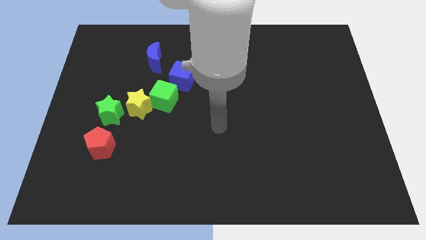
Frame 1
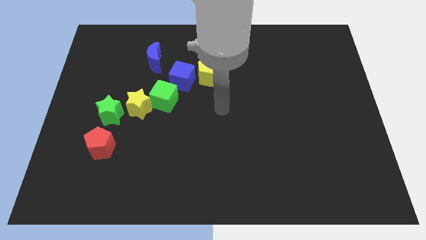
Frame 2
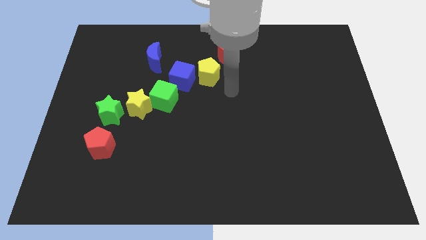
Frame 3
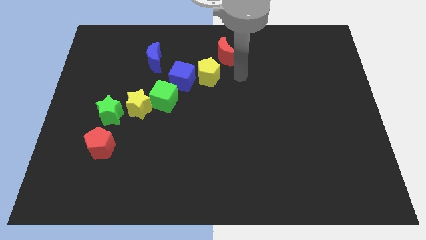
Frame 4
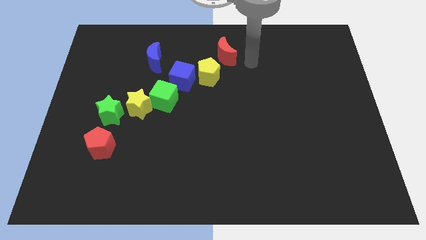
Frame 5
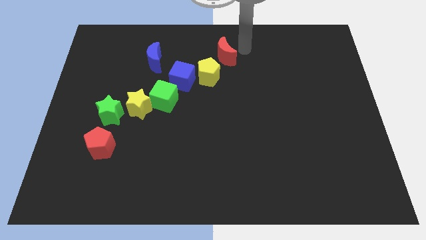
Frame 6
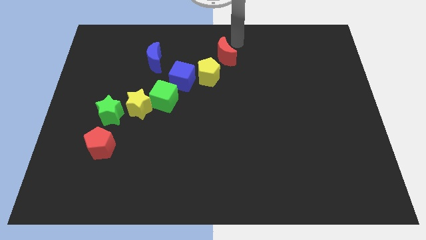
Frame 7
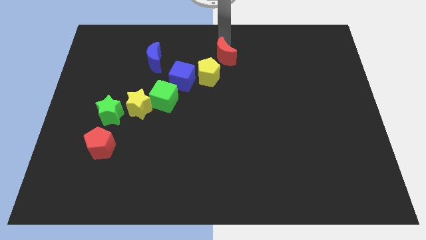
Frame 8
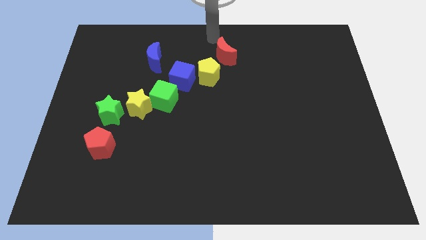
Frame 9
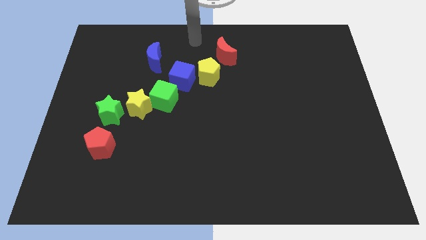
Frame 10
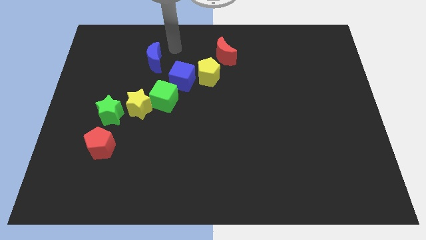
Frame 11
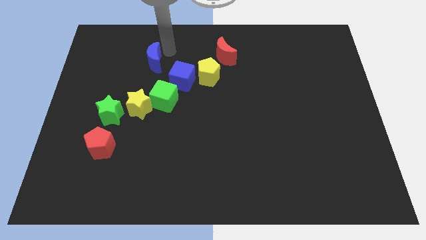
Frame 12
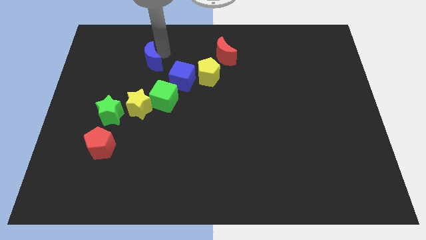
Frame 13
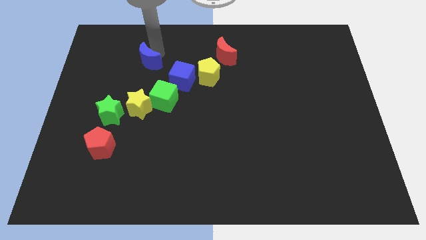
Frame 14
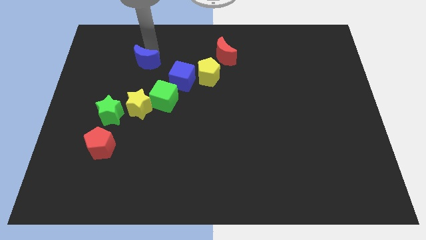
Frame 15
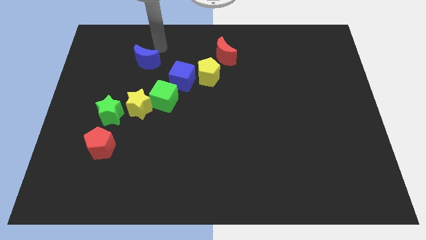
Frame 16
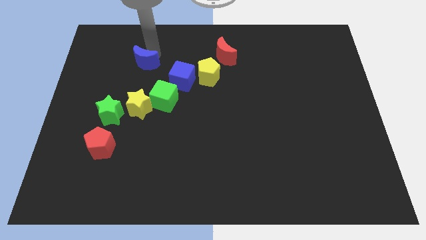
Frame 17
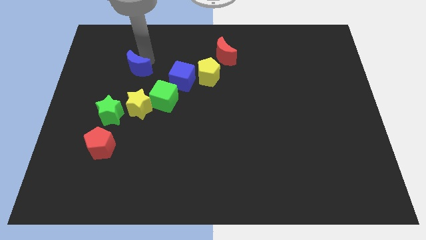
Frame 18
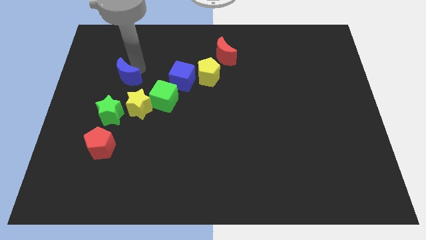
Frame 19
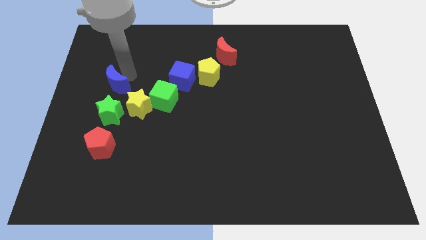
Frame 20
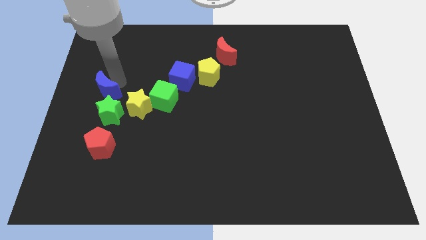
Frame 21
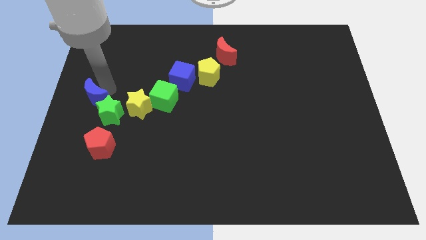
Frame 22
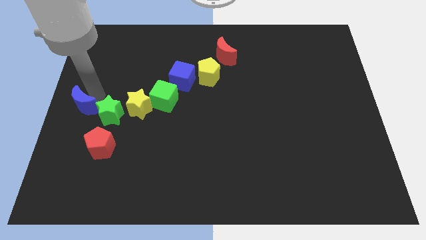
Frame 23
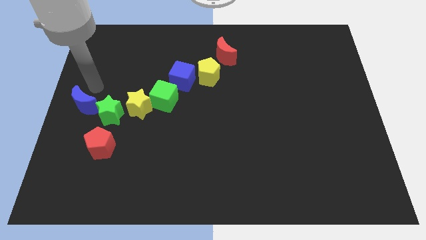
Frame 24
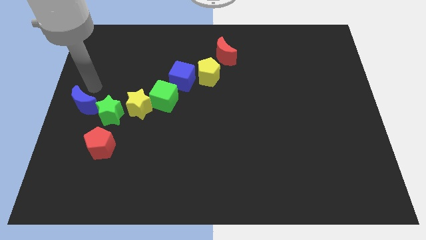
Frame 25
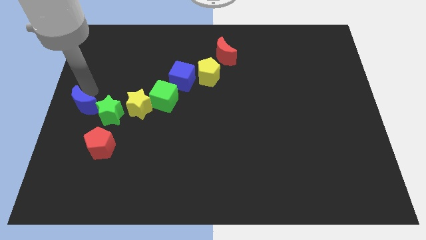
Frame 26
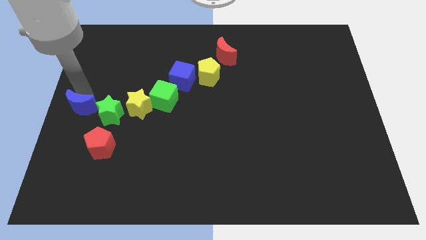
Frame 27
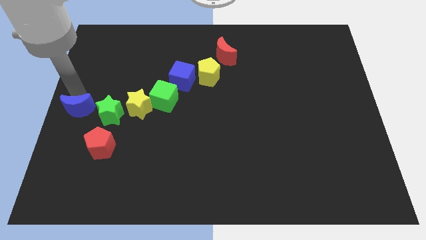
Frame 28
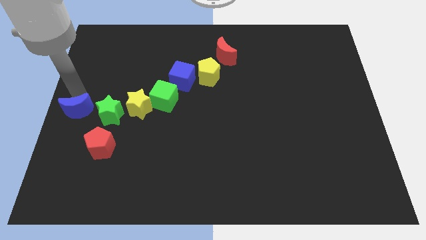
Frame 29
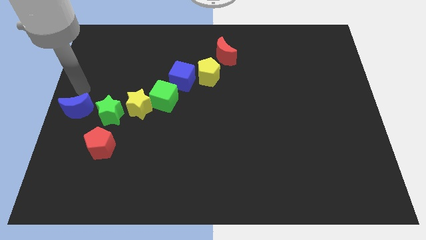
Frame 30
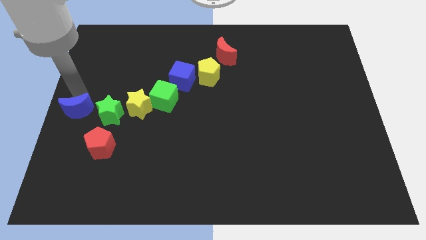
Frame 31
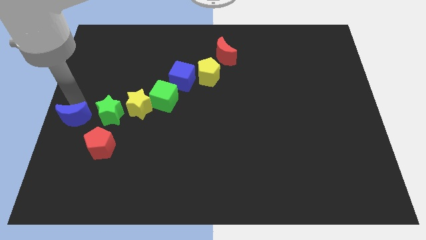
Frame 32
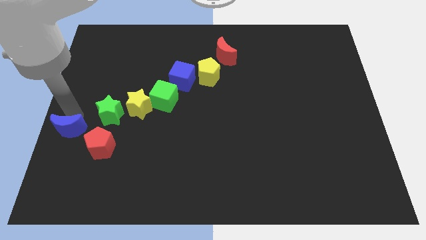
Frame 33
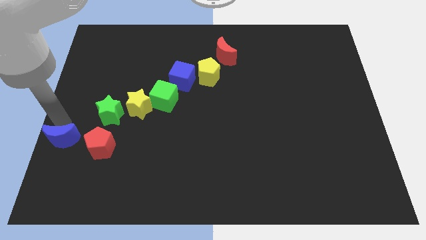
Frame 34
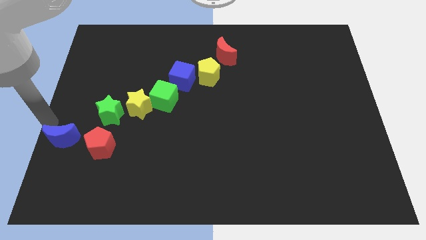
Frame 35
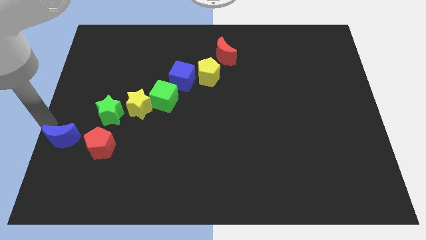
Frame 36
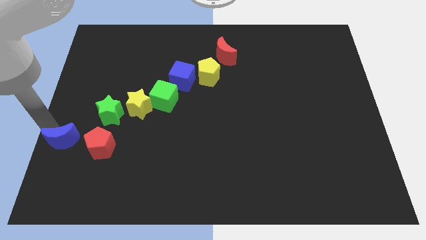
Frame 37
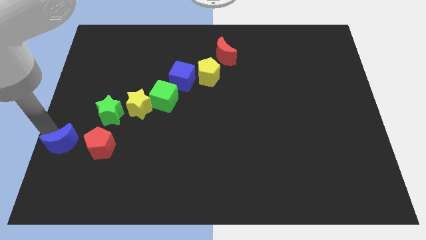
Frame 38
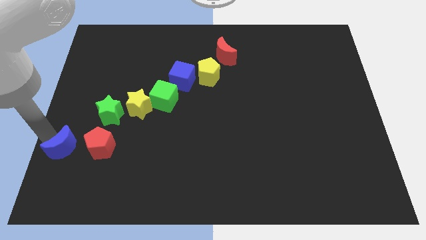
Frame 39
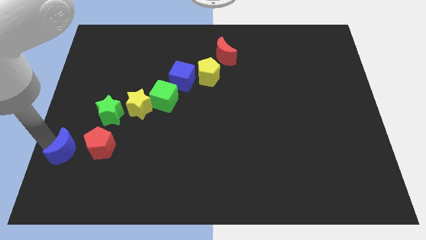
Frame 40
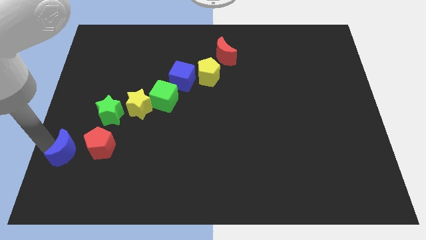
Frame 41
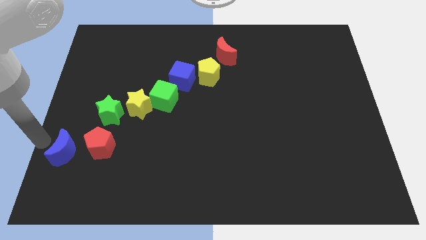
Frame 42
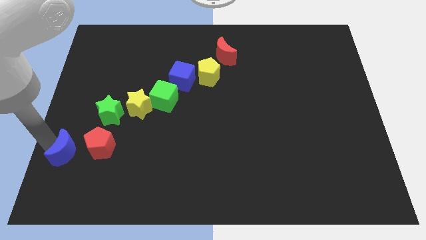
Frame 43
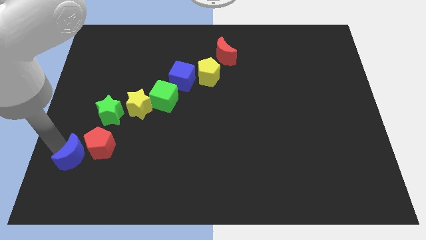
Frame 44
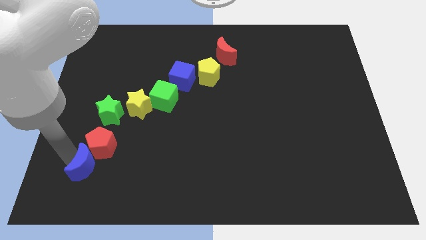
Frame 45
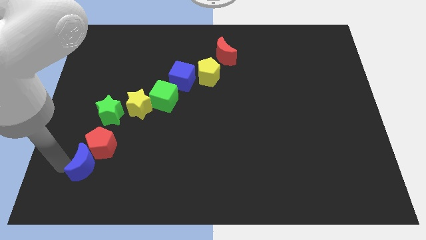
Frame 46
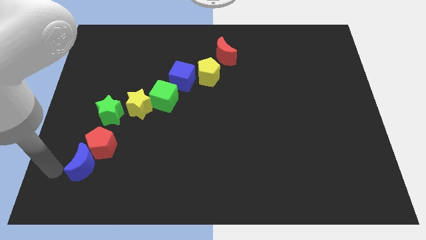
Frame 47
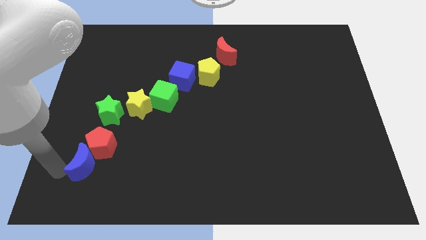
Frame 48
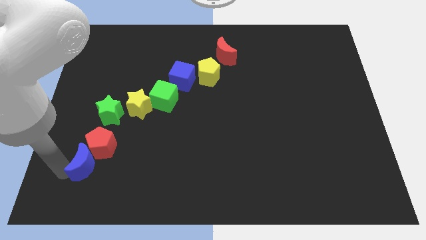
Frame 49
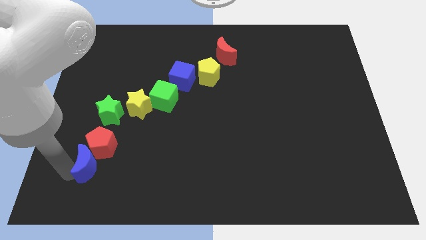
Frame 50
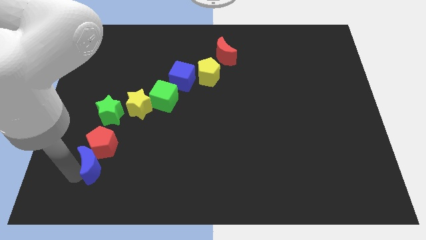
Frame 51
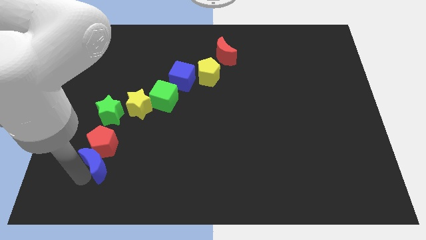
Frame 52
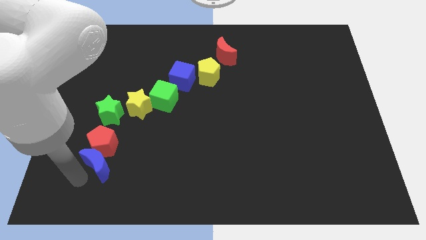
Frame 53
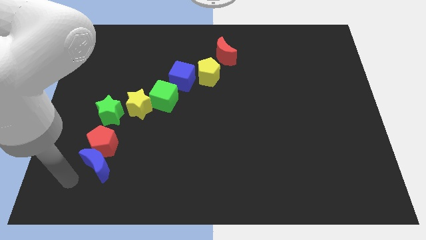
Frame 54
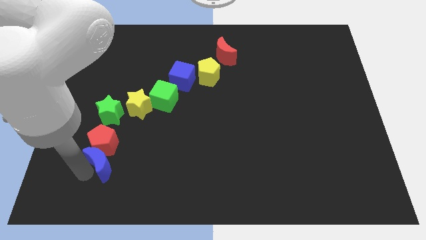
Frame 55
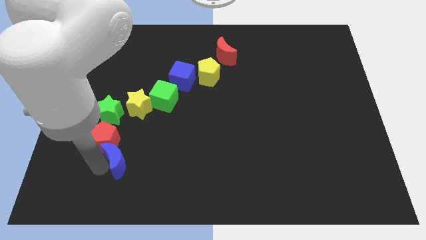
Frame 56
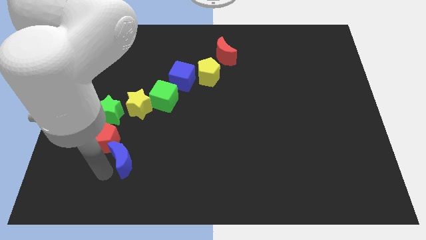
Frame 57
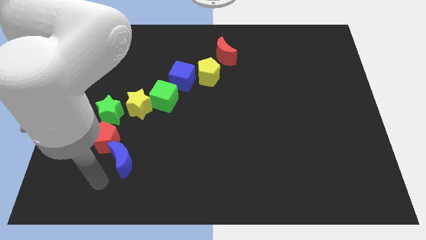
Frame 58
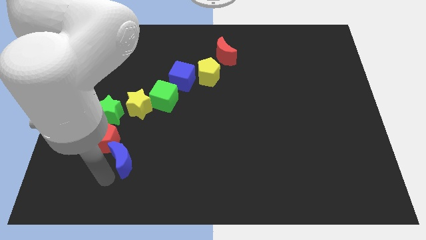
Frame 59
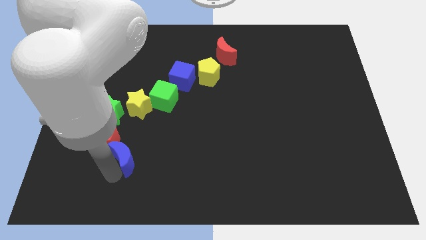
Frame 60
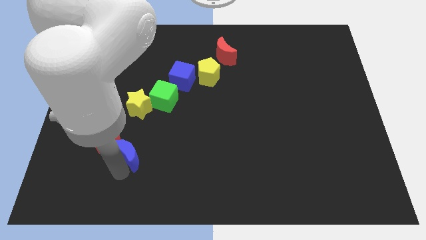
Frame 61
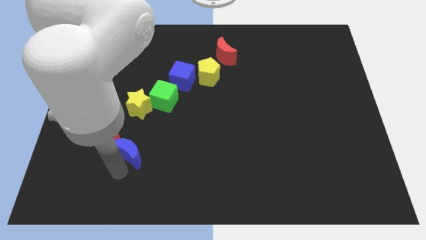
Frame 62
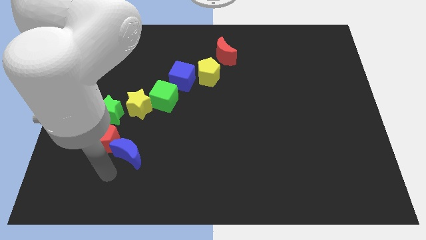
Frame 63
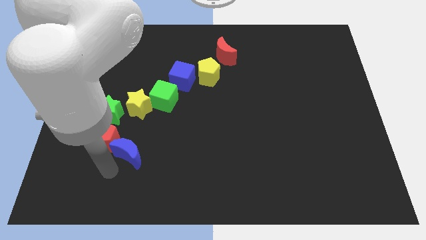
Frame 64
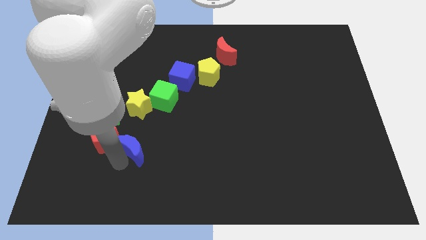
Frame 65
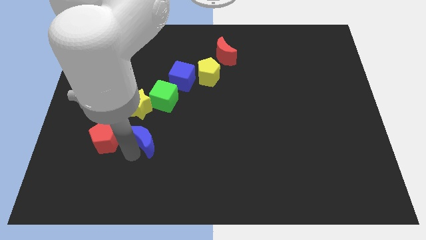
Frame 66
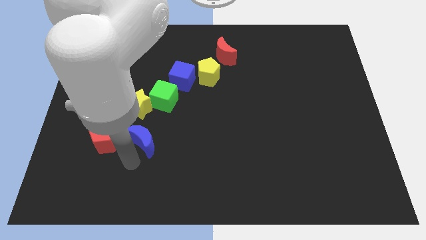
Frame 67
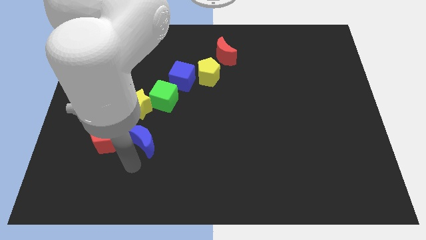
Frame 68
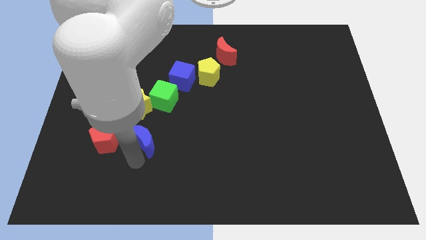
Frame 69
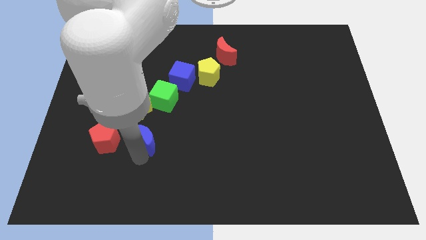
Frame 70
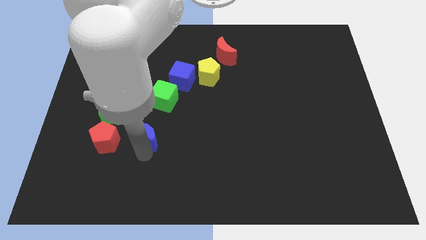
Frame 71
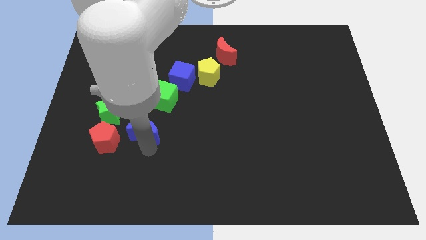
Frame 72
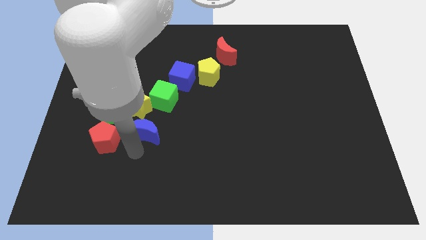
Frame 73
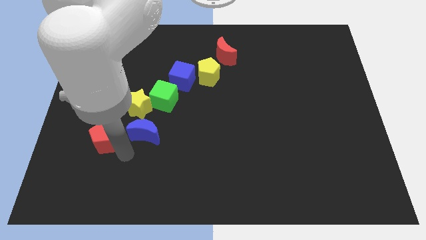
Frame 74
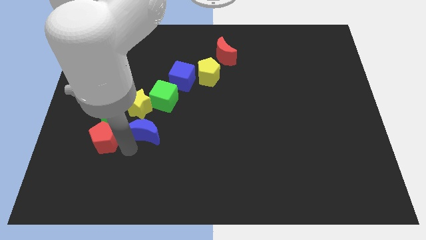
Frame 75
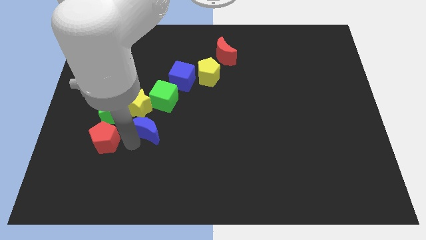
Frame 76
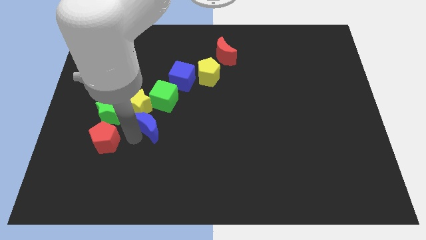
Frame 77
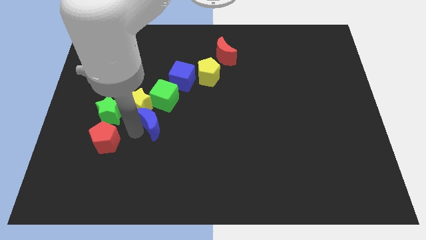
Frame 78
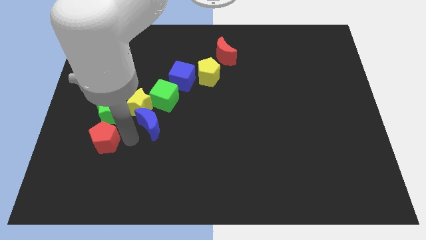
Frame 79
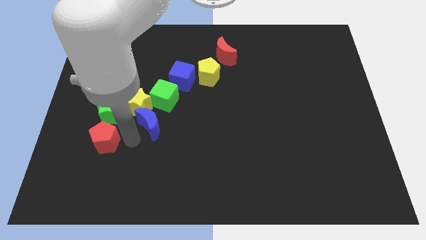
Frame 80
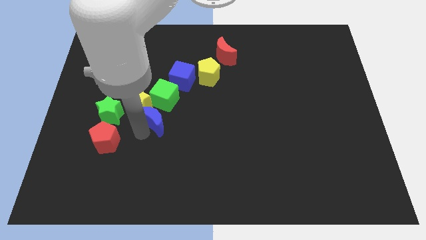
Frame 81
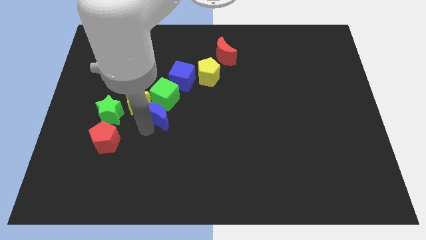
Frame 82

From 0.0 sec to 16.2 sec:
slide the blue moon somewhat down and to the right

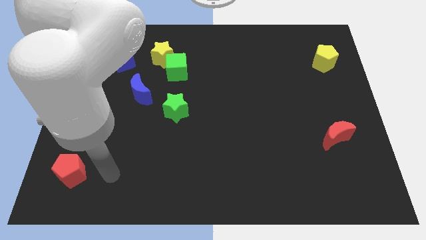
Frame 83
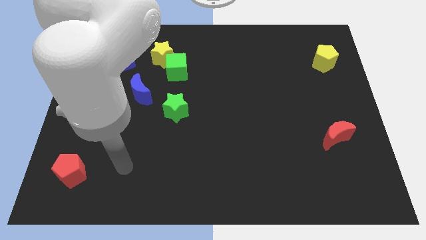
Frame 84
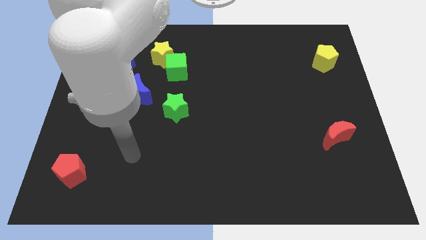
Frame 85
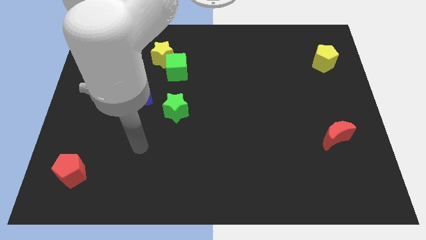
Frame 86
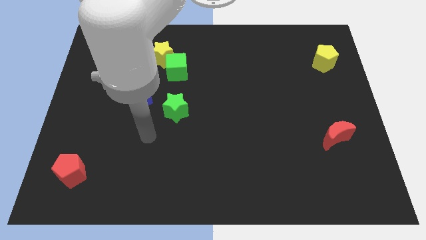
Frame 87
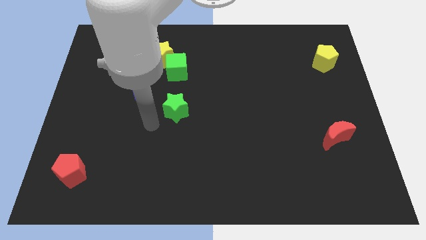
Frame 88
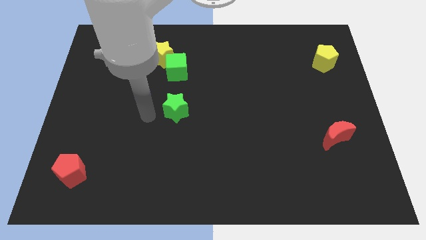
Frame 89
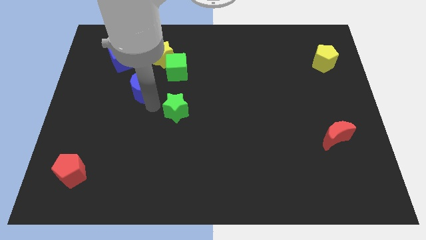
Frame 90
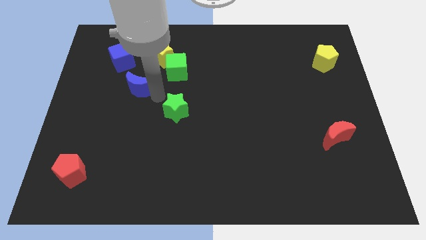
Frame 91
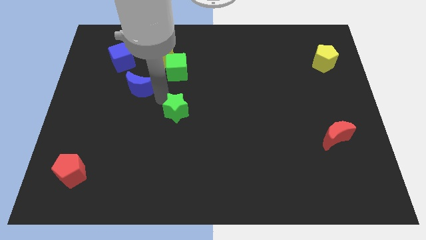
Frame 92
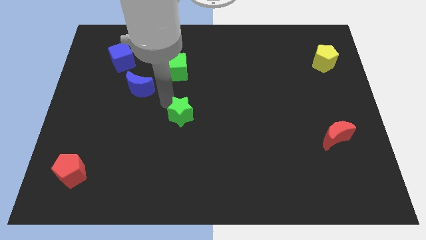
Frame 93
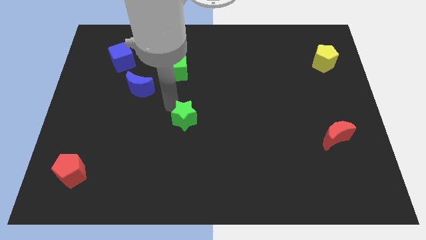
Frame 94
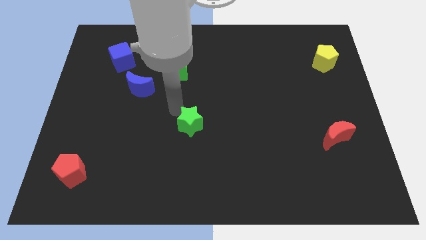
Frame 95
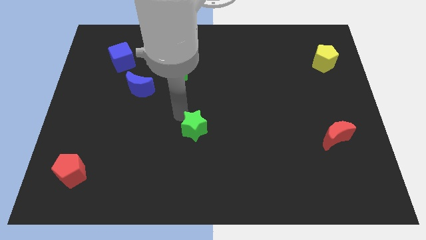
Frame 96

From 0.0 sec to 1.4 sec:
slide the green star a little bit down and right diagonally
